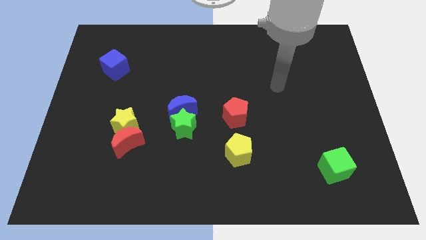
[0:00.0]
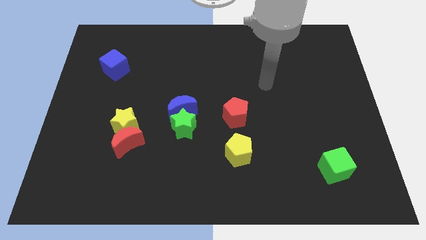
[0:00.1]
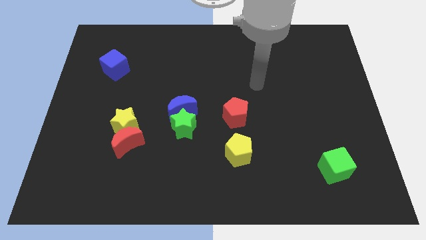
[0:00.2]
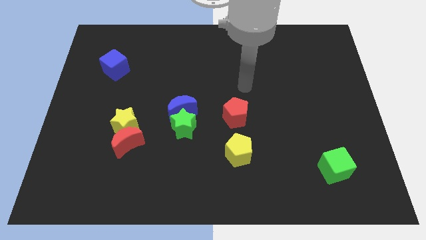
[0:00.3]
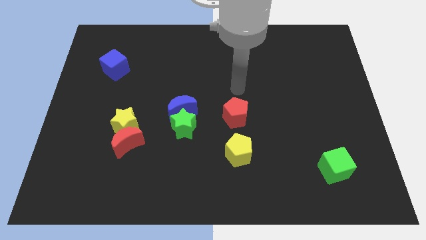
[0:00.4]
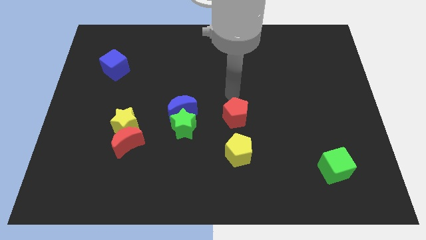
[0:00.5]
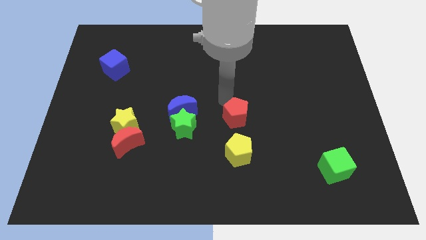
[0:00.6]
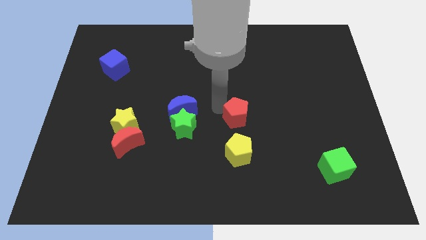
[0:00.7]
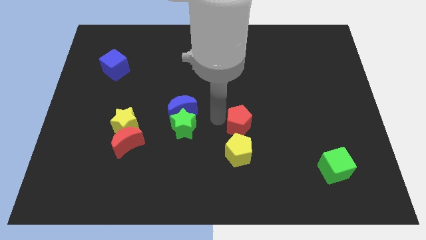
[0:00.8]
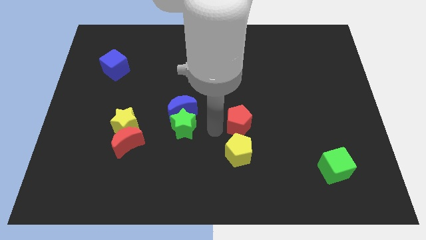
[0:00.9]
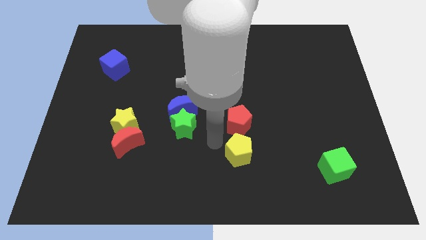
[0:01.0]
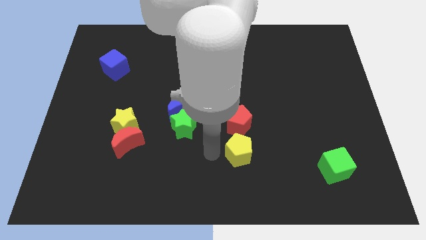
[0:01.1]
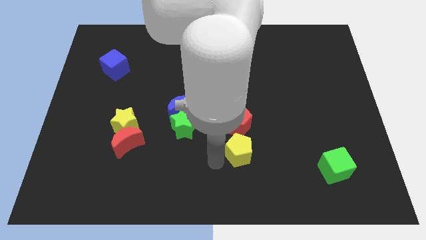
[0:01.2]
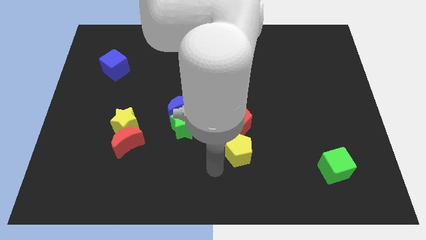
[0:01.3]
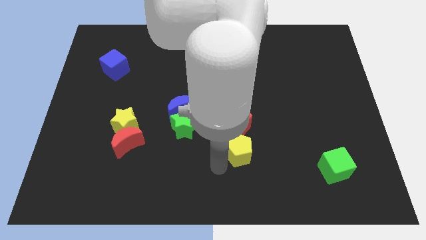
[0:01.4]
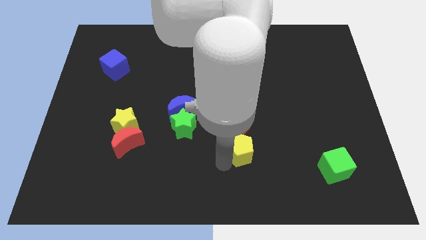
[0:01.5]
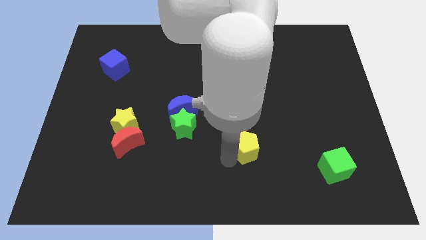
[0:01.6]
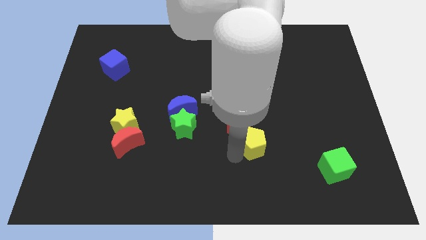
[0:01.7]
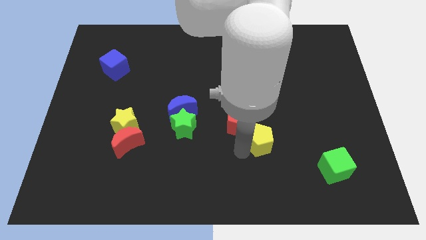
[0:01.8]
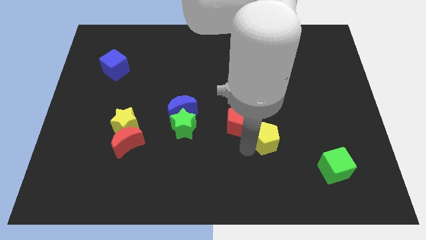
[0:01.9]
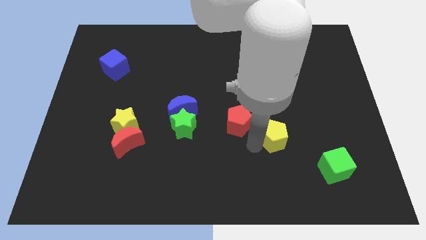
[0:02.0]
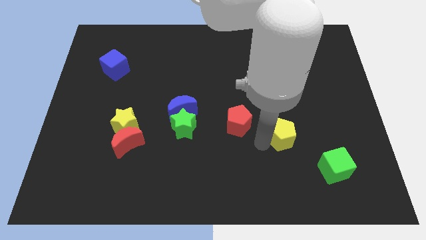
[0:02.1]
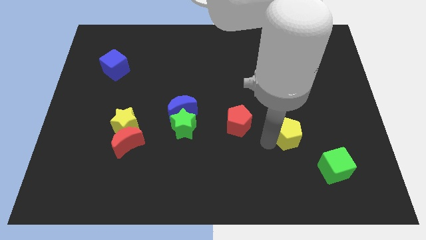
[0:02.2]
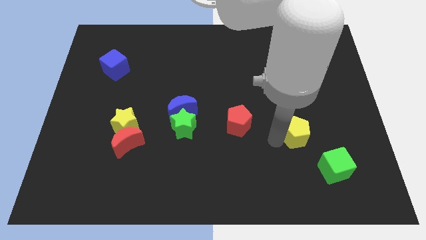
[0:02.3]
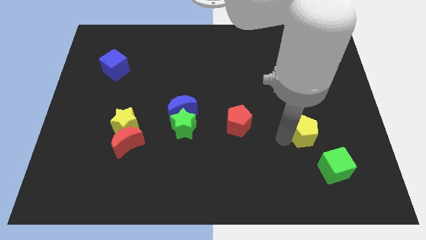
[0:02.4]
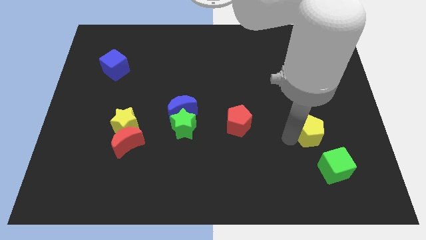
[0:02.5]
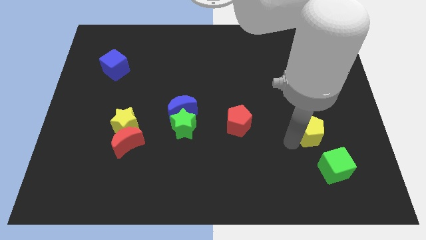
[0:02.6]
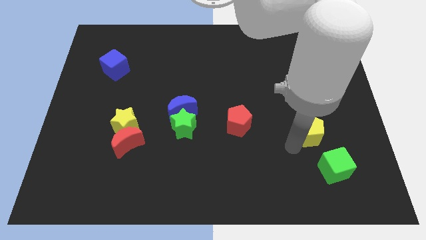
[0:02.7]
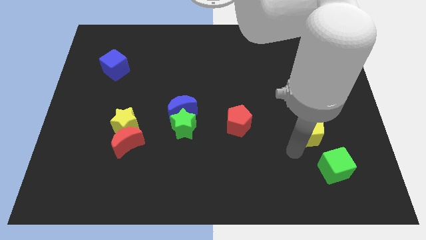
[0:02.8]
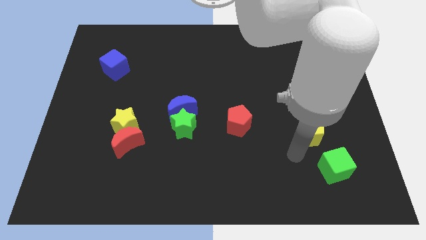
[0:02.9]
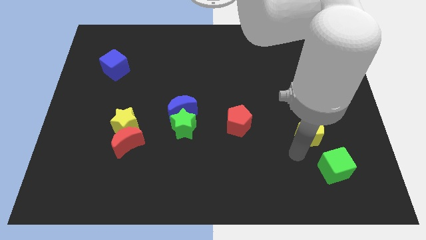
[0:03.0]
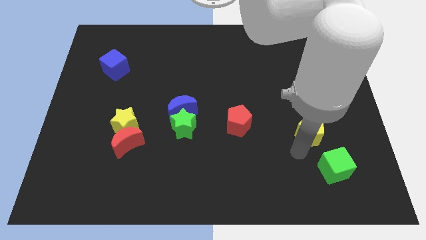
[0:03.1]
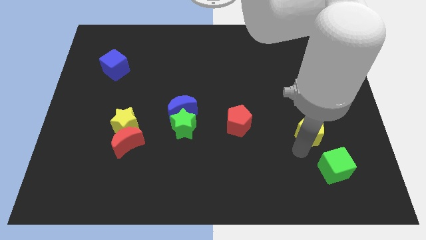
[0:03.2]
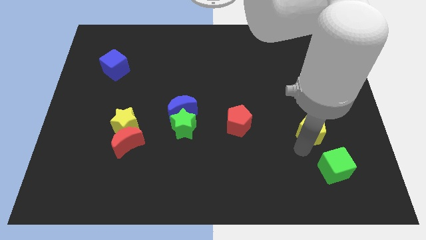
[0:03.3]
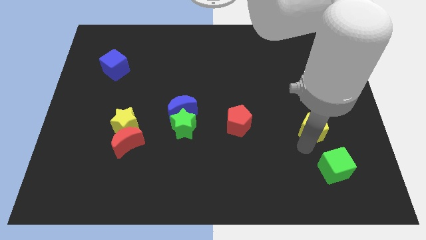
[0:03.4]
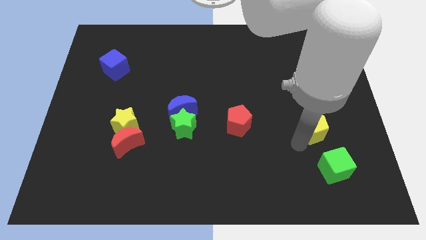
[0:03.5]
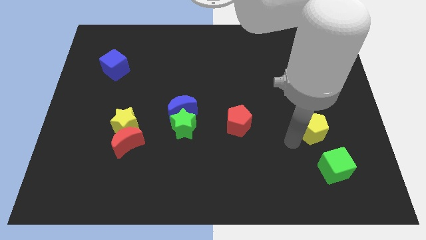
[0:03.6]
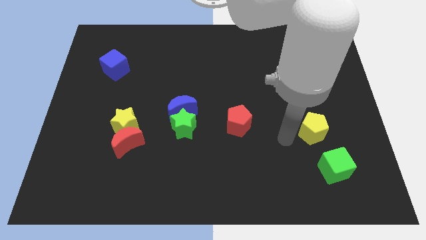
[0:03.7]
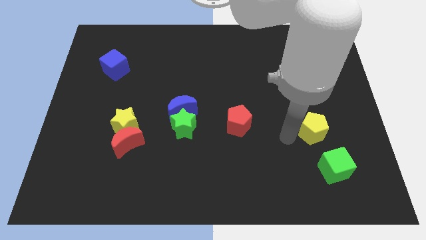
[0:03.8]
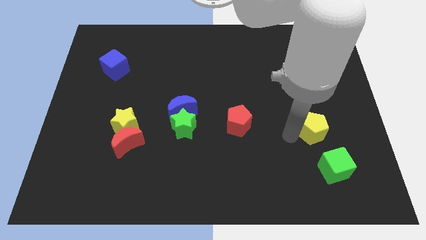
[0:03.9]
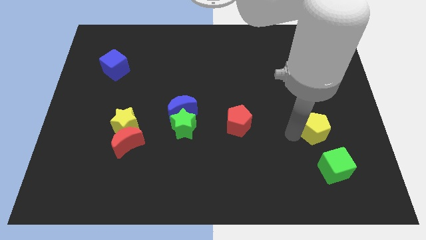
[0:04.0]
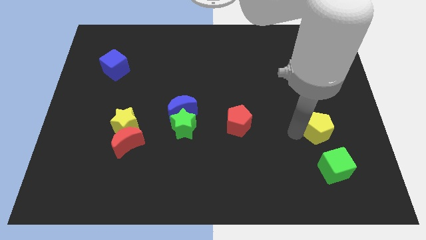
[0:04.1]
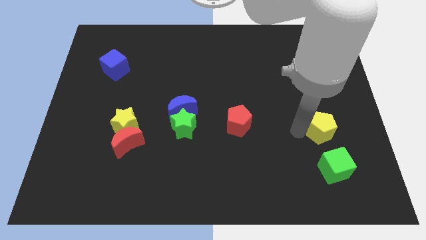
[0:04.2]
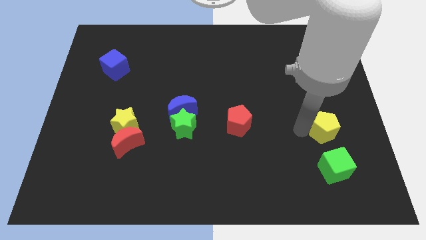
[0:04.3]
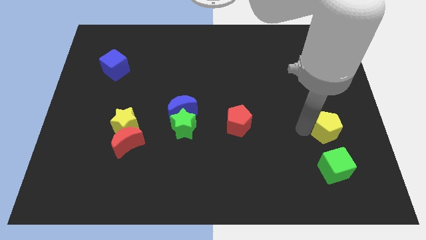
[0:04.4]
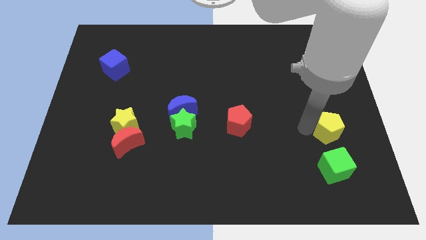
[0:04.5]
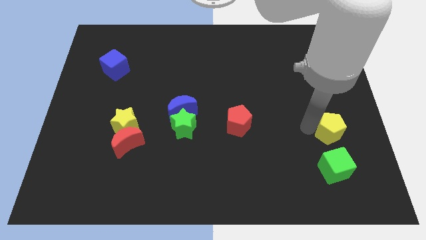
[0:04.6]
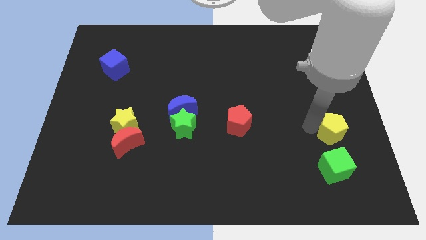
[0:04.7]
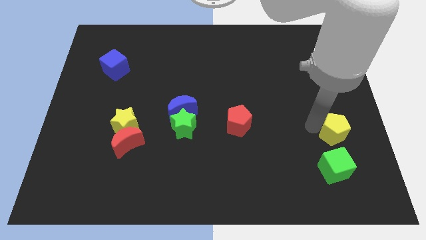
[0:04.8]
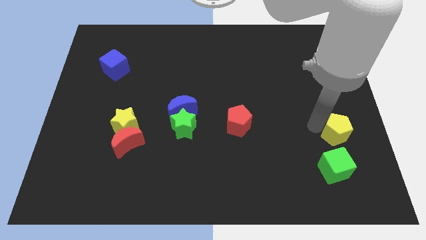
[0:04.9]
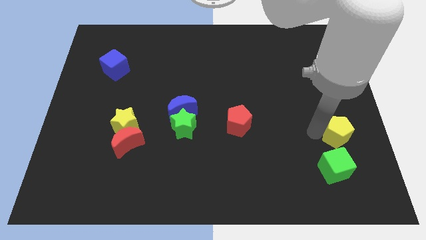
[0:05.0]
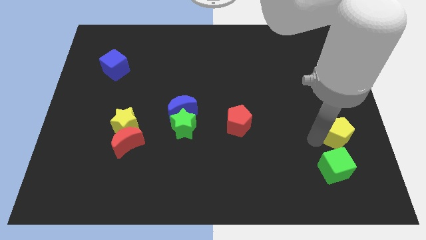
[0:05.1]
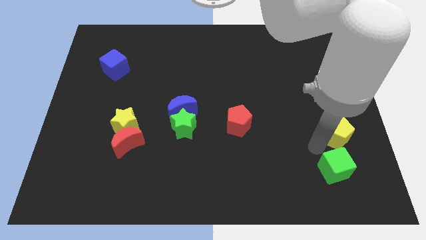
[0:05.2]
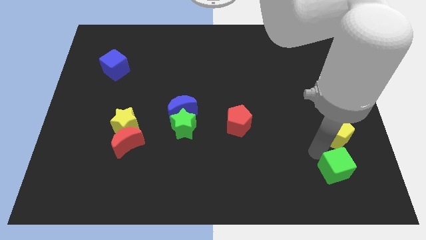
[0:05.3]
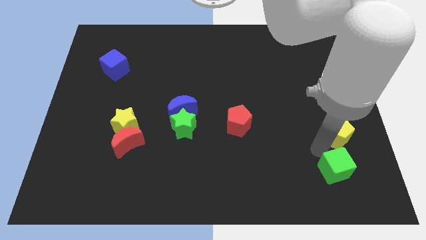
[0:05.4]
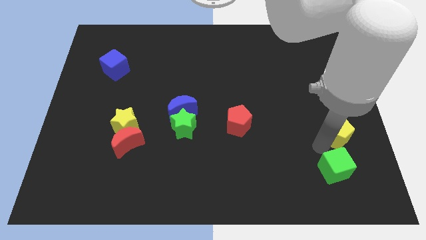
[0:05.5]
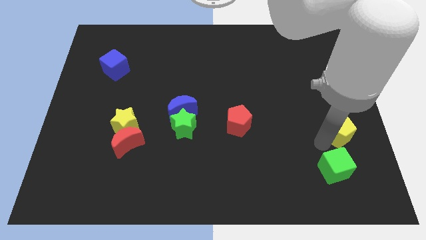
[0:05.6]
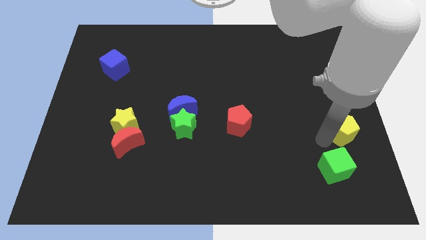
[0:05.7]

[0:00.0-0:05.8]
push the yellow pentagon to the center right
